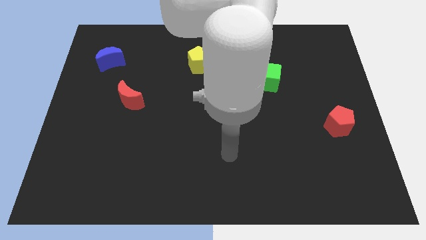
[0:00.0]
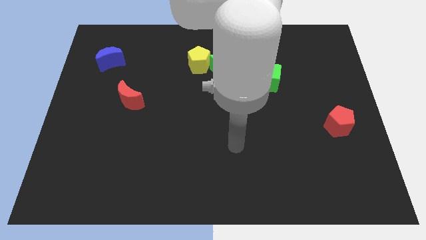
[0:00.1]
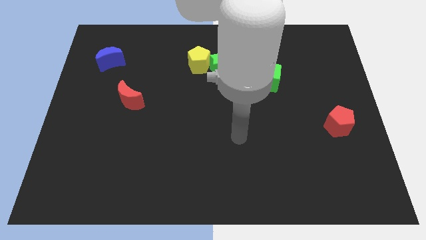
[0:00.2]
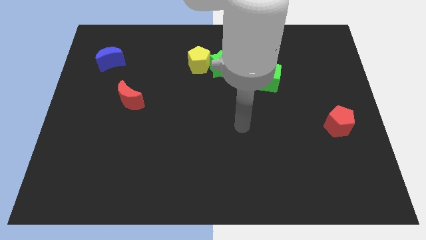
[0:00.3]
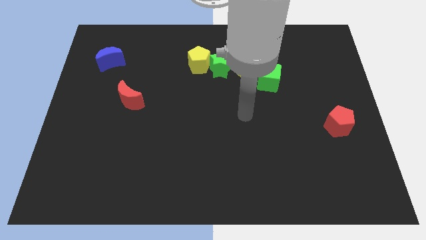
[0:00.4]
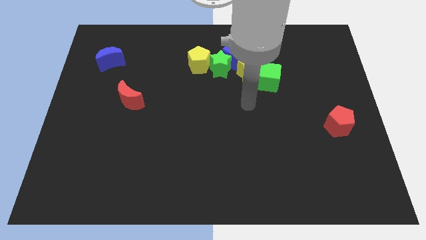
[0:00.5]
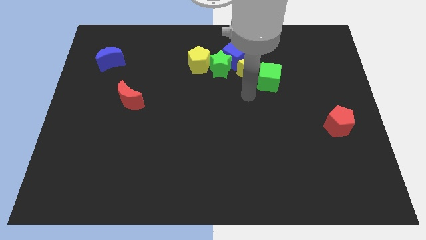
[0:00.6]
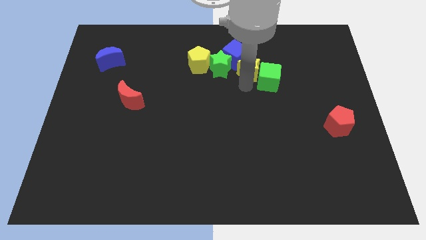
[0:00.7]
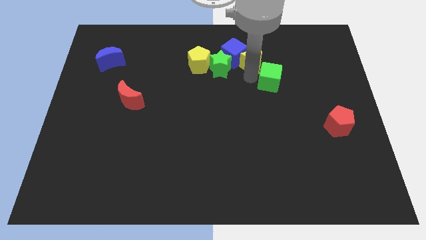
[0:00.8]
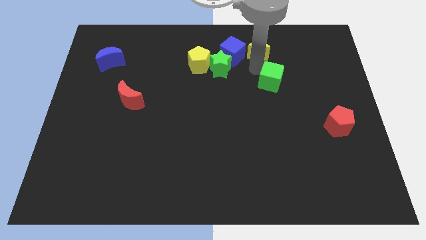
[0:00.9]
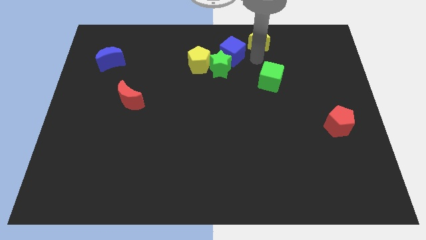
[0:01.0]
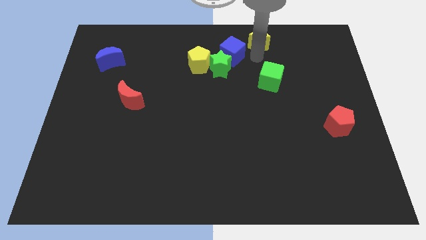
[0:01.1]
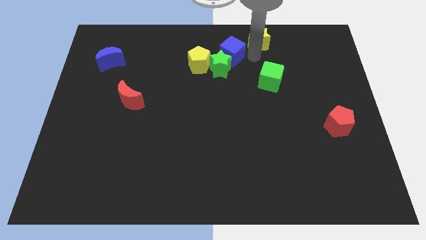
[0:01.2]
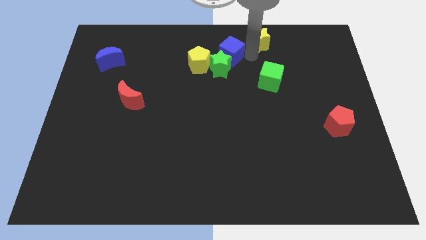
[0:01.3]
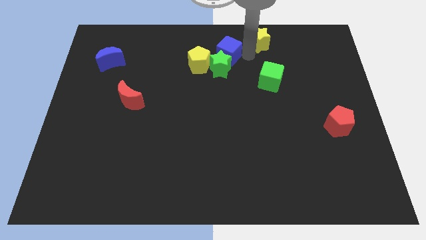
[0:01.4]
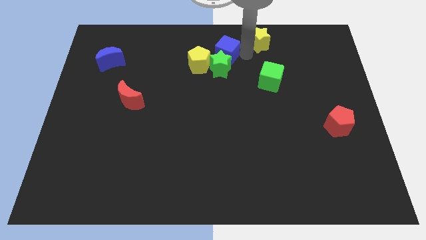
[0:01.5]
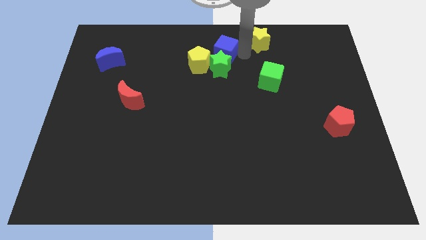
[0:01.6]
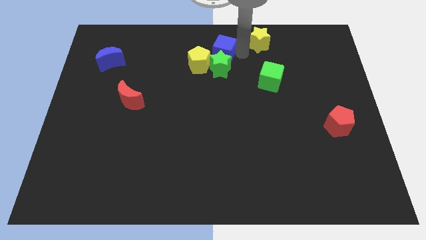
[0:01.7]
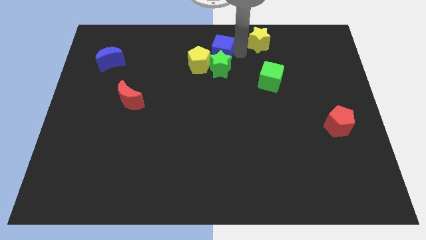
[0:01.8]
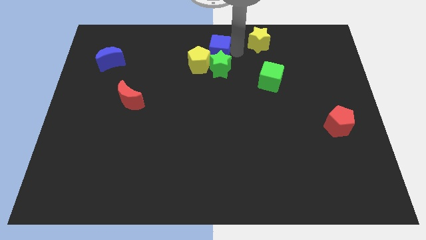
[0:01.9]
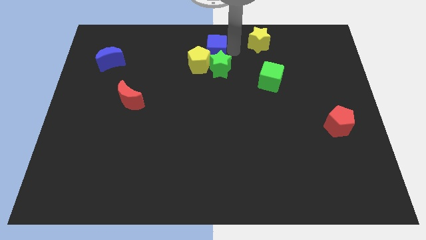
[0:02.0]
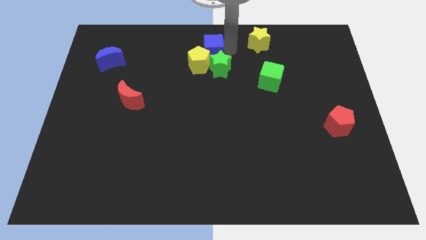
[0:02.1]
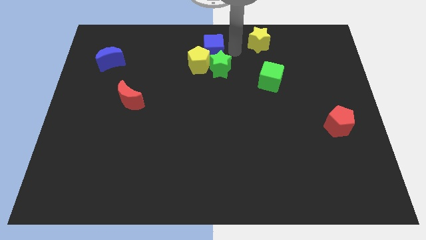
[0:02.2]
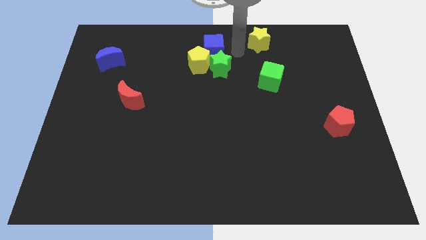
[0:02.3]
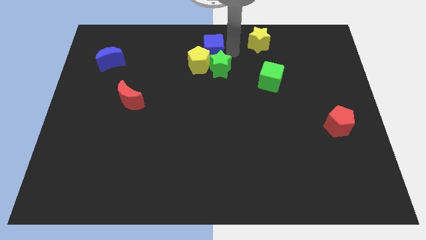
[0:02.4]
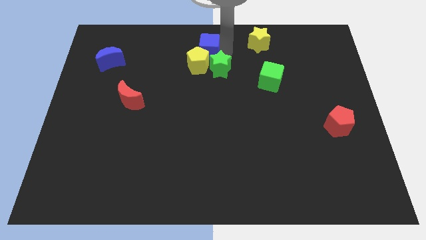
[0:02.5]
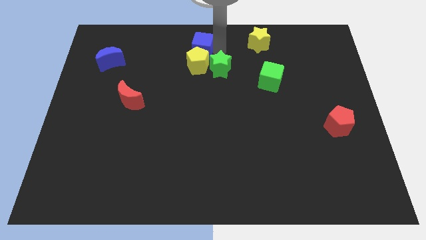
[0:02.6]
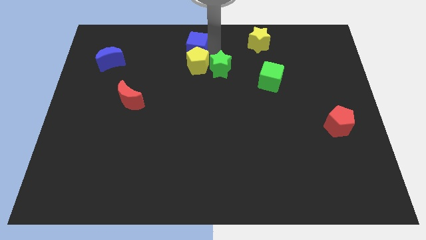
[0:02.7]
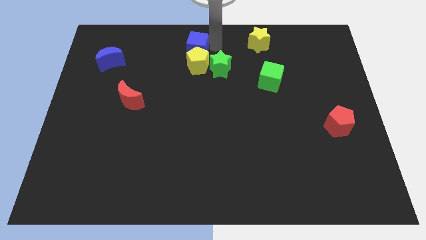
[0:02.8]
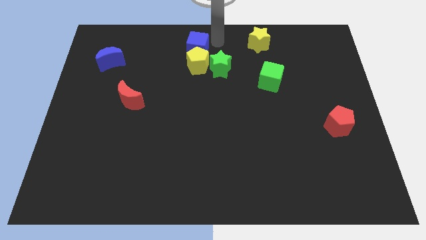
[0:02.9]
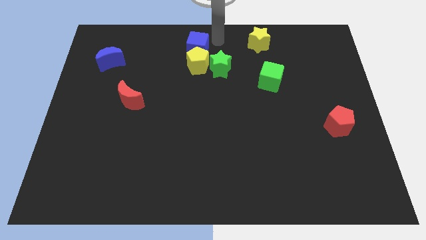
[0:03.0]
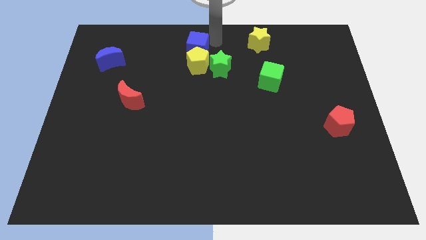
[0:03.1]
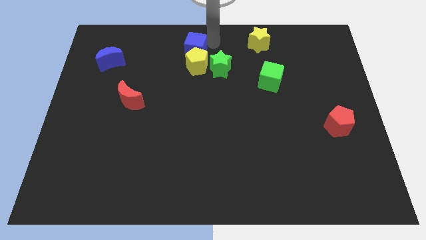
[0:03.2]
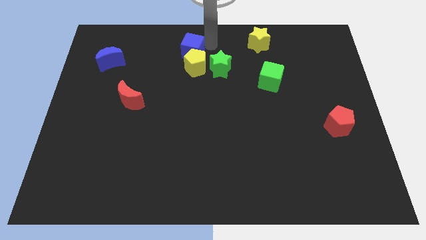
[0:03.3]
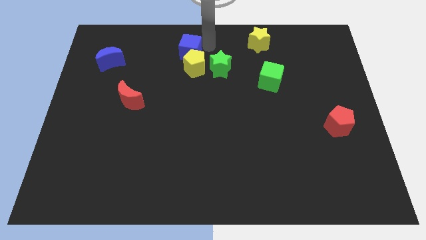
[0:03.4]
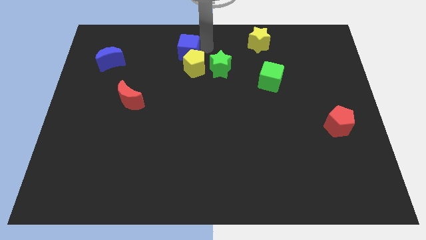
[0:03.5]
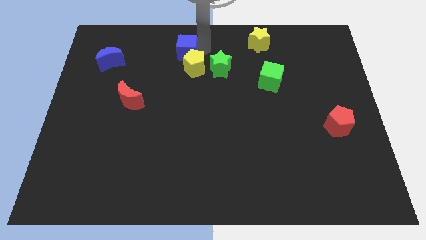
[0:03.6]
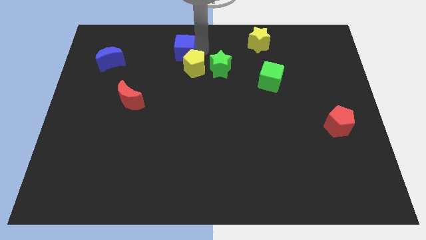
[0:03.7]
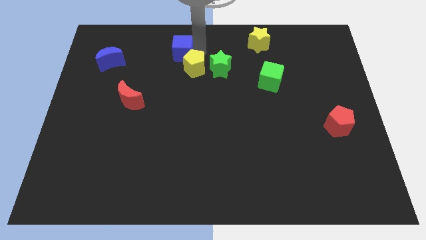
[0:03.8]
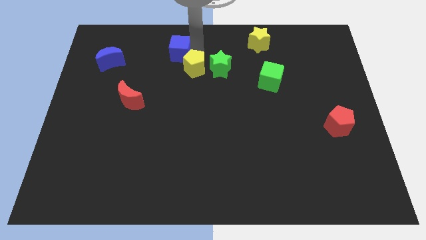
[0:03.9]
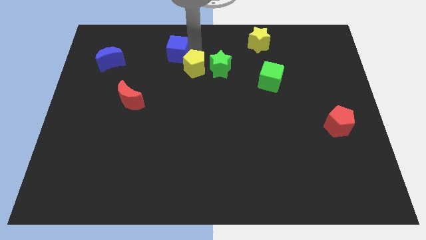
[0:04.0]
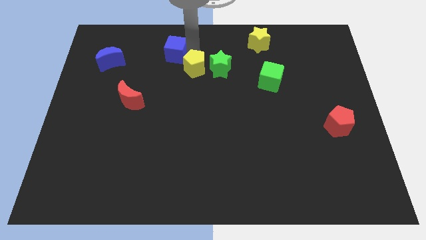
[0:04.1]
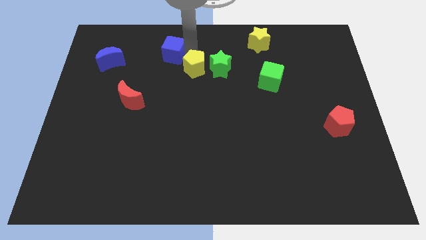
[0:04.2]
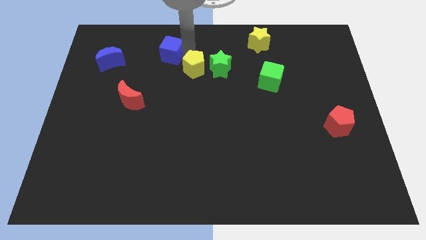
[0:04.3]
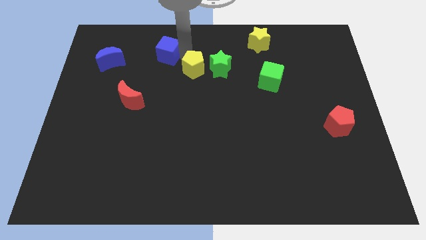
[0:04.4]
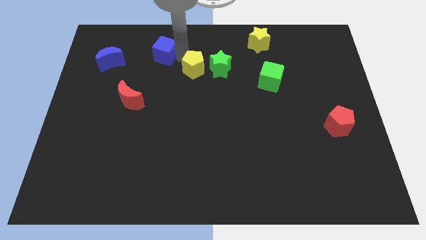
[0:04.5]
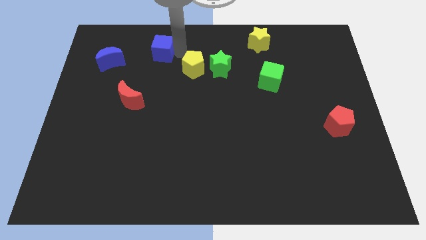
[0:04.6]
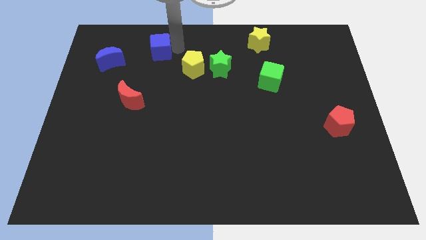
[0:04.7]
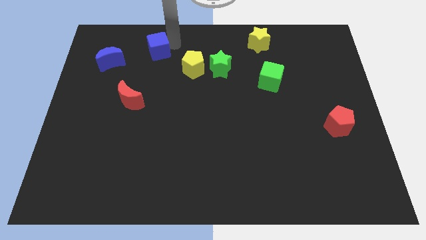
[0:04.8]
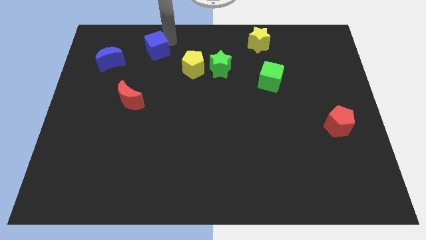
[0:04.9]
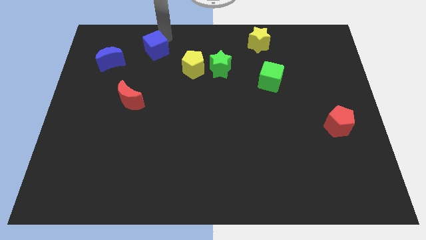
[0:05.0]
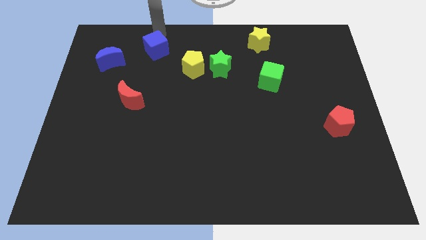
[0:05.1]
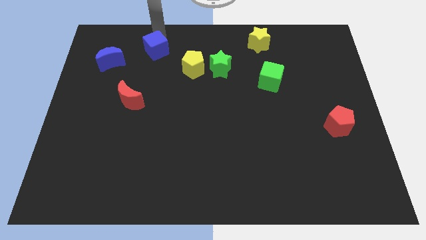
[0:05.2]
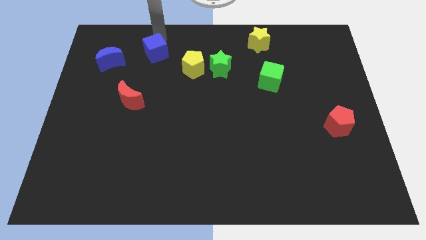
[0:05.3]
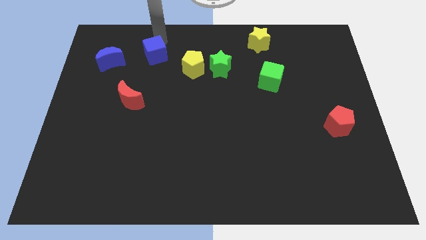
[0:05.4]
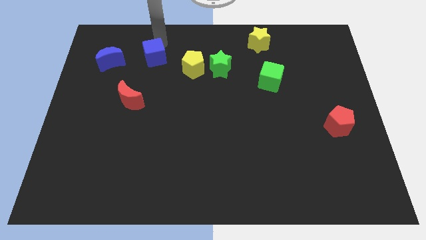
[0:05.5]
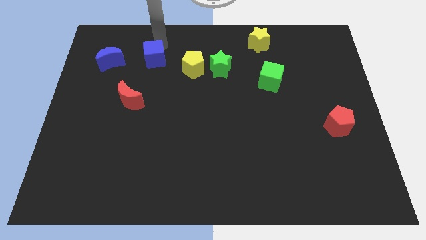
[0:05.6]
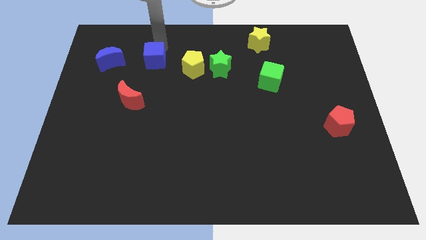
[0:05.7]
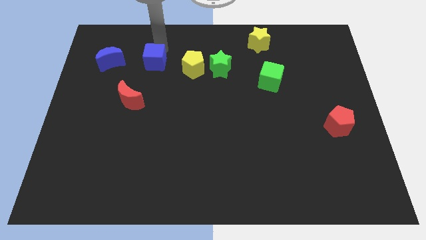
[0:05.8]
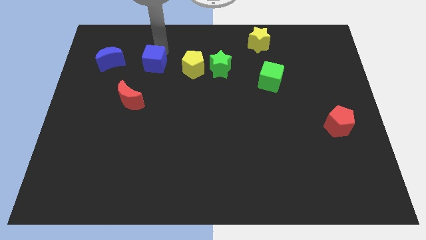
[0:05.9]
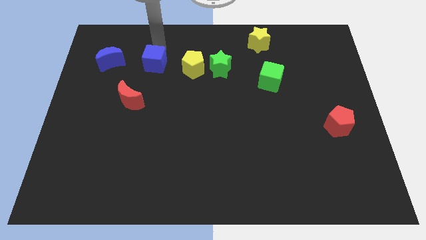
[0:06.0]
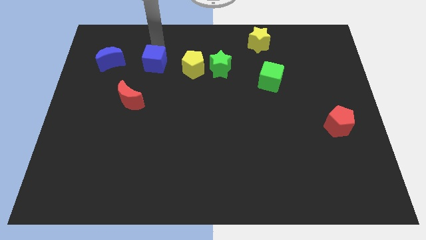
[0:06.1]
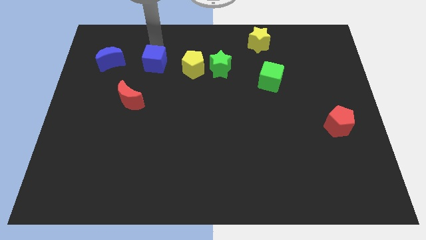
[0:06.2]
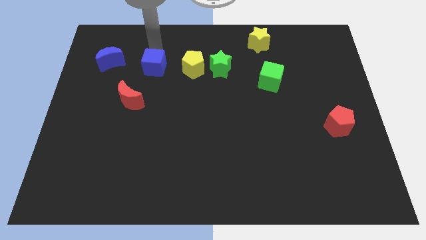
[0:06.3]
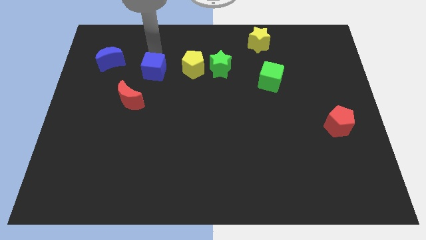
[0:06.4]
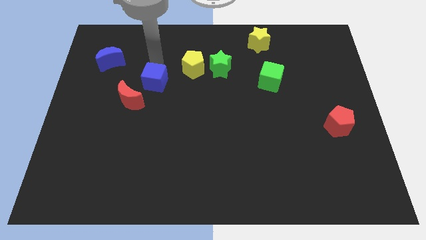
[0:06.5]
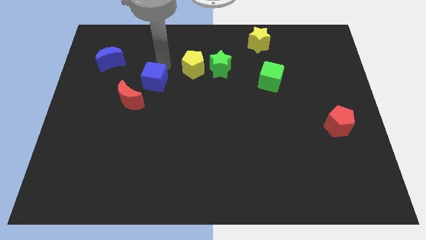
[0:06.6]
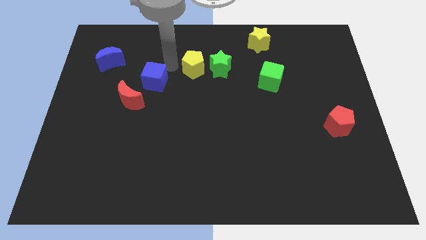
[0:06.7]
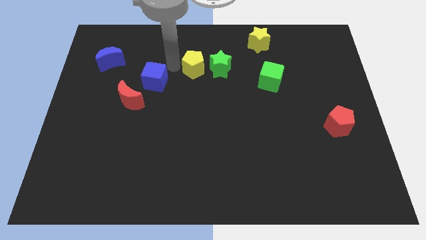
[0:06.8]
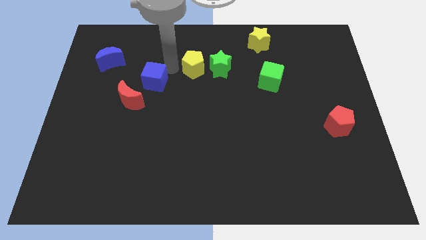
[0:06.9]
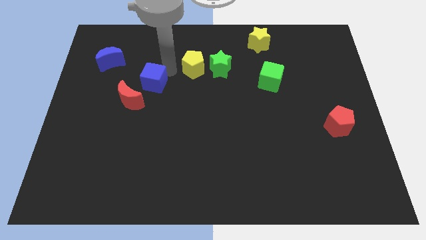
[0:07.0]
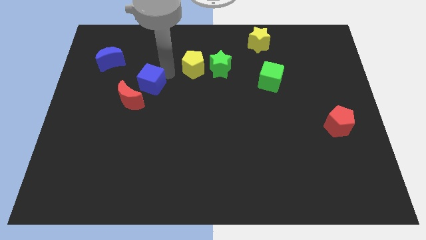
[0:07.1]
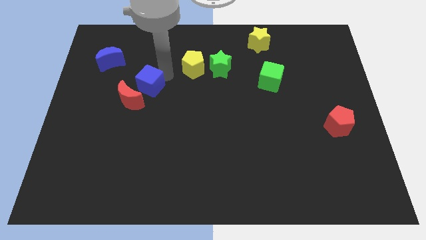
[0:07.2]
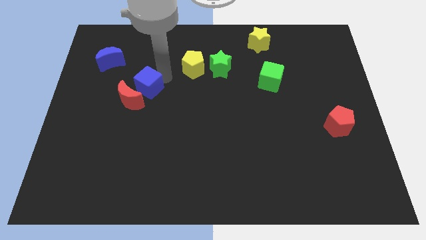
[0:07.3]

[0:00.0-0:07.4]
push the blue cube next to the red moon
